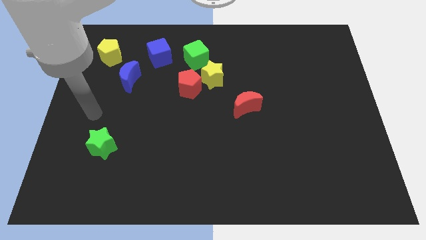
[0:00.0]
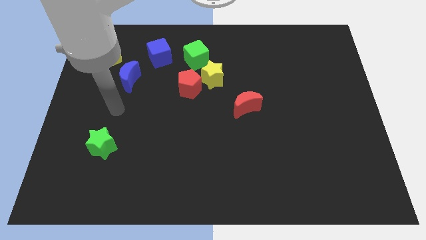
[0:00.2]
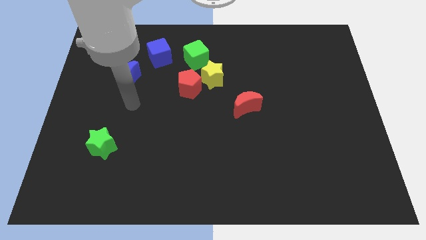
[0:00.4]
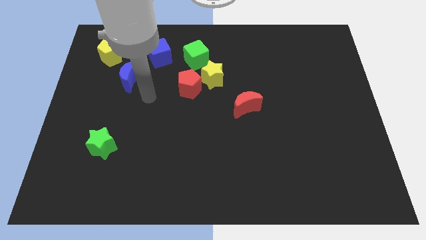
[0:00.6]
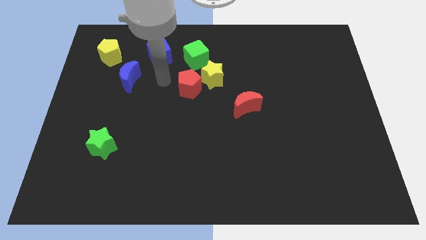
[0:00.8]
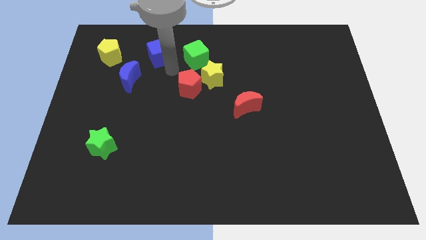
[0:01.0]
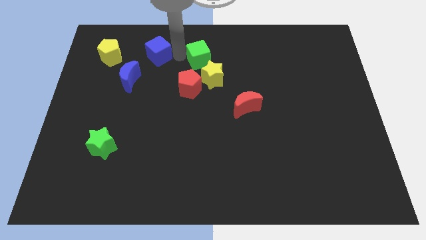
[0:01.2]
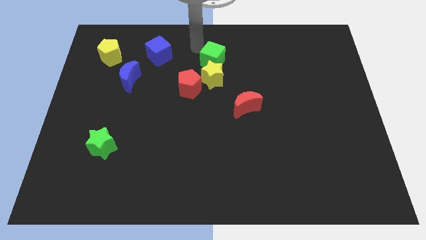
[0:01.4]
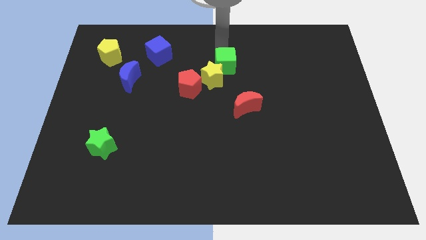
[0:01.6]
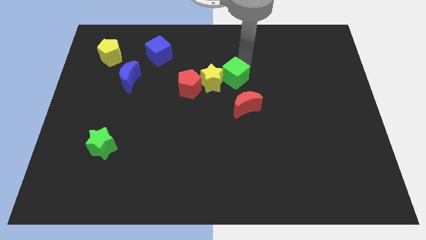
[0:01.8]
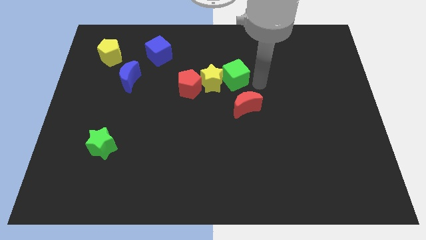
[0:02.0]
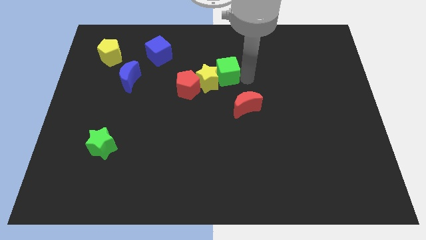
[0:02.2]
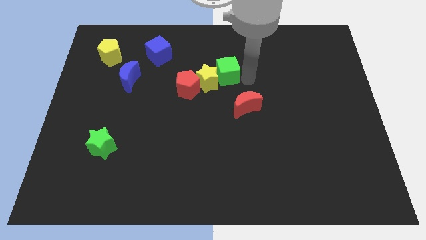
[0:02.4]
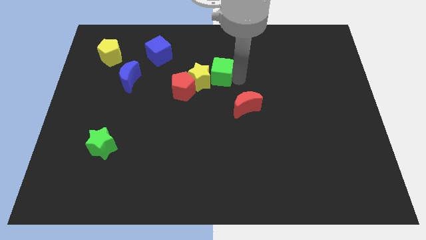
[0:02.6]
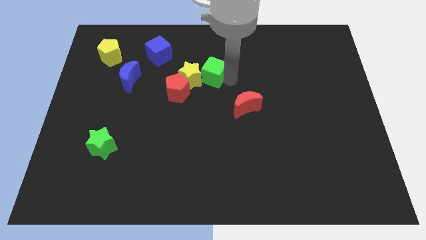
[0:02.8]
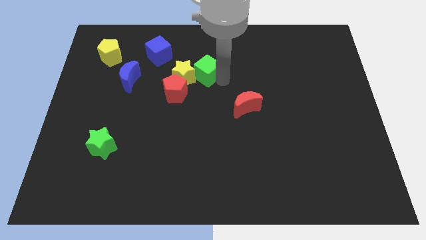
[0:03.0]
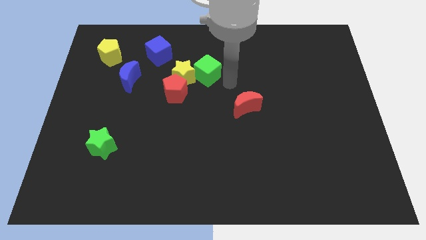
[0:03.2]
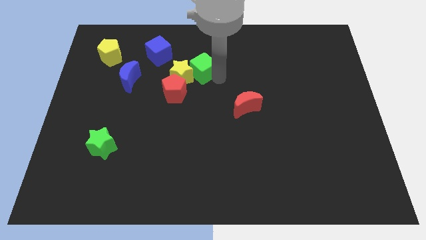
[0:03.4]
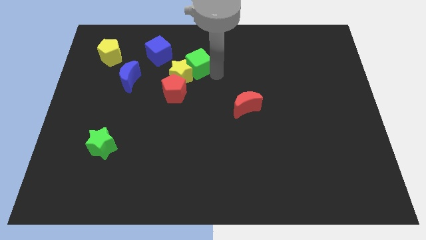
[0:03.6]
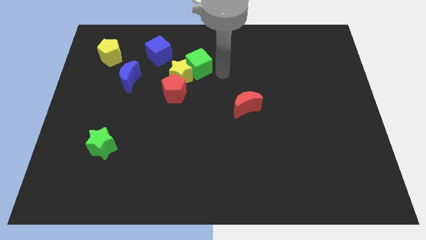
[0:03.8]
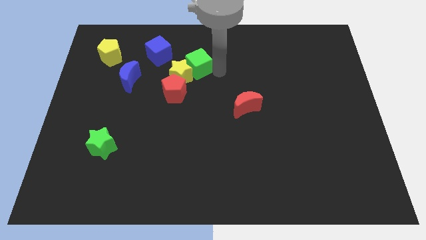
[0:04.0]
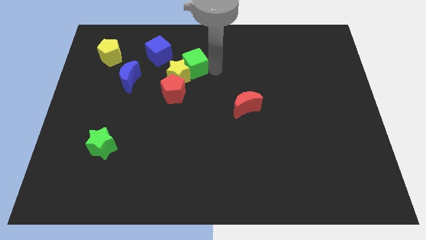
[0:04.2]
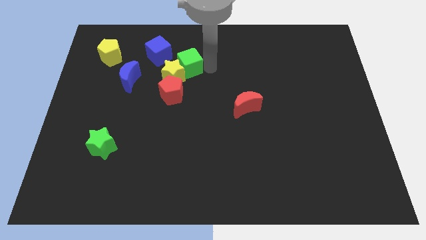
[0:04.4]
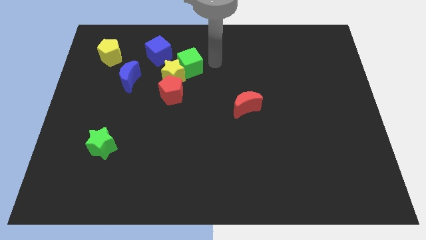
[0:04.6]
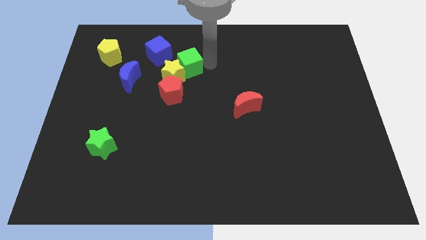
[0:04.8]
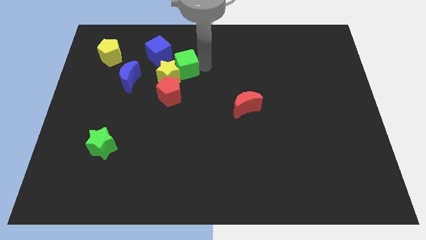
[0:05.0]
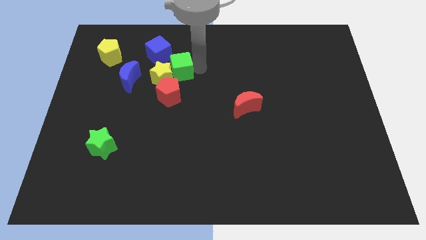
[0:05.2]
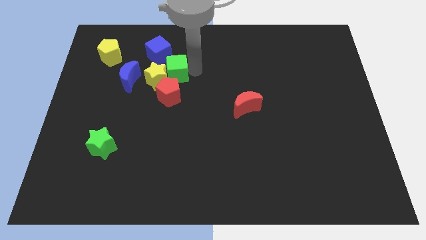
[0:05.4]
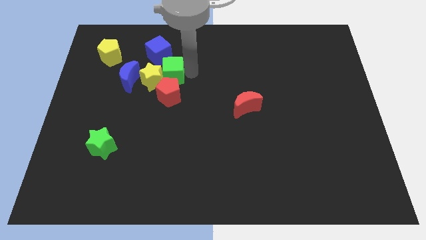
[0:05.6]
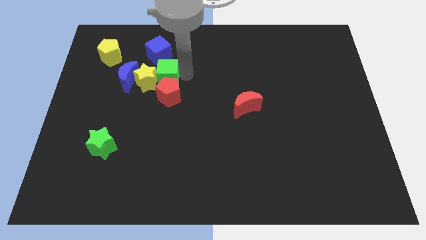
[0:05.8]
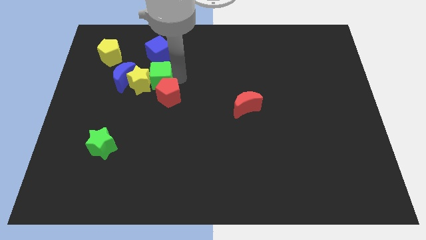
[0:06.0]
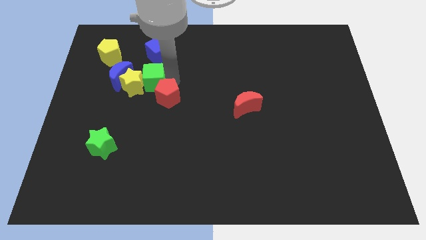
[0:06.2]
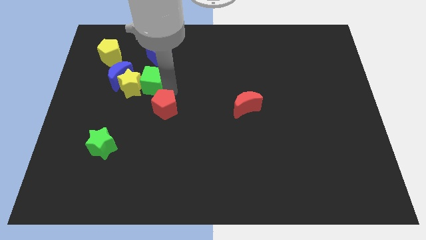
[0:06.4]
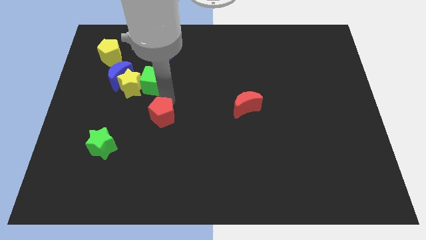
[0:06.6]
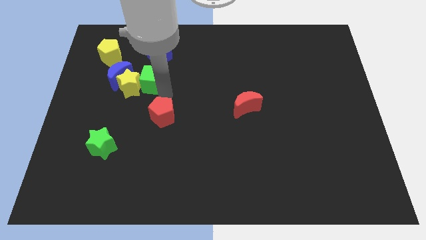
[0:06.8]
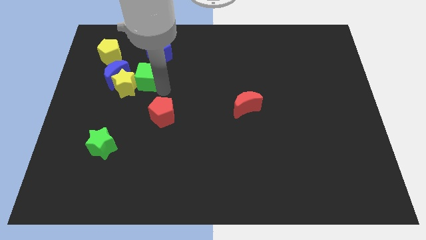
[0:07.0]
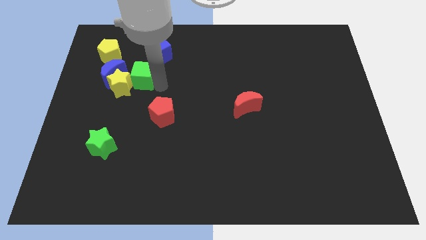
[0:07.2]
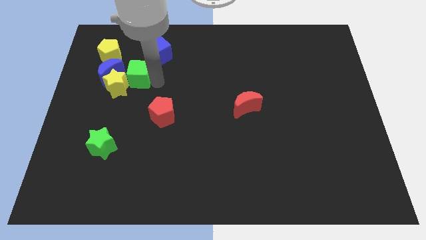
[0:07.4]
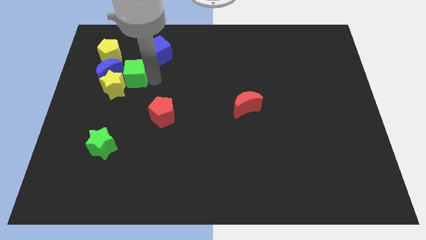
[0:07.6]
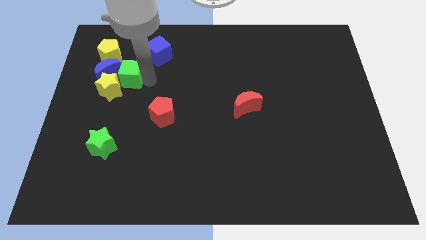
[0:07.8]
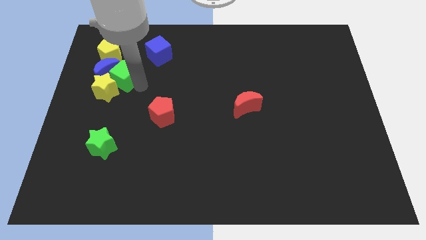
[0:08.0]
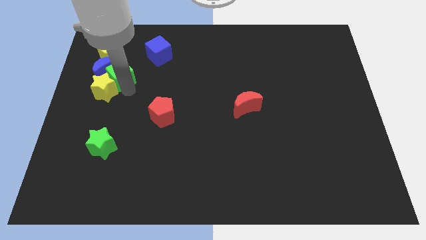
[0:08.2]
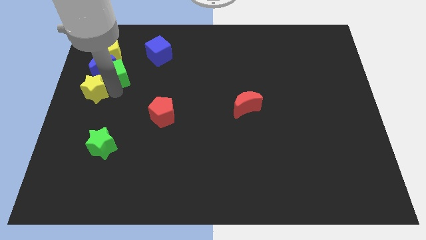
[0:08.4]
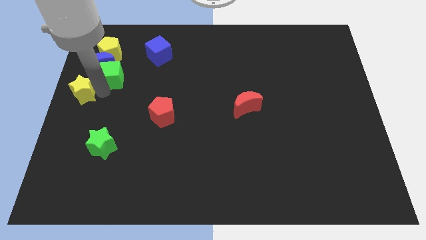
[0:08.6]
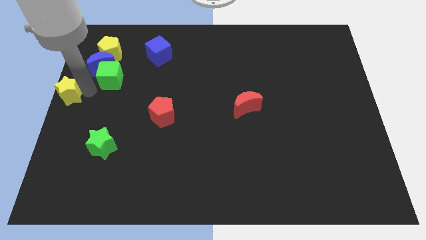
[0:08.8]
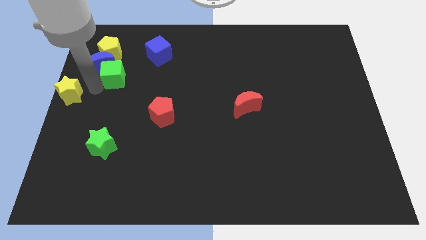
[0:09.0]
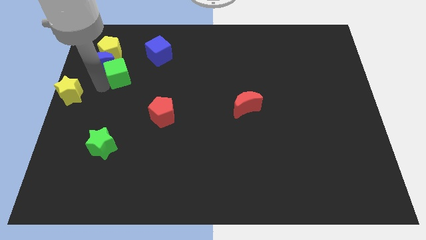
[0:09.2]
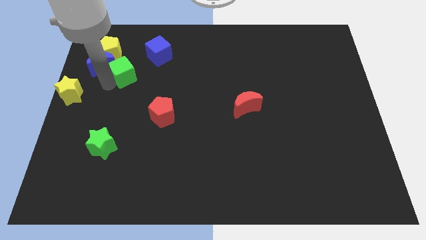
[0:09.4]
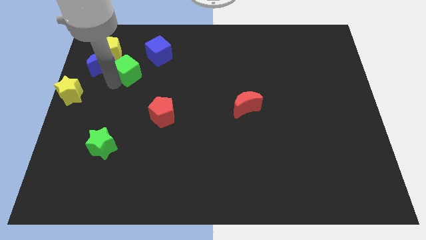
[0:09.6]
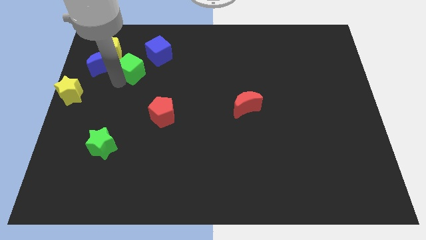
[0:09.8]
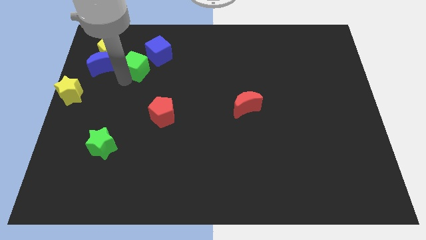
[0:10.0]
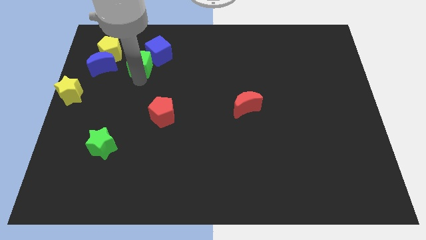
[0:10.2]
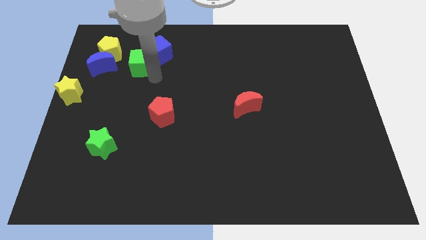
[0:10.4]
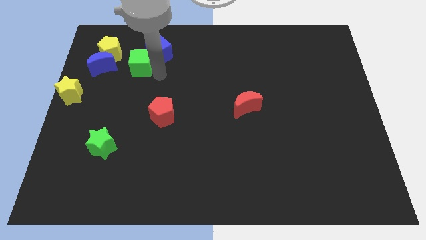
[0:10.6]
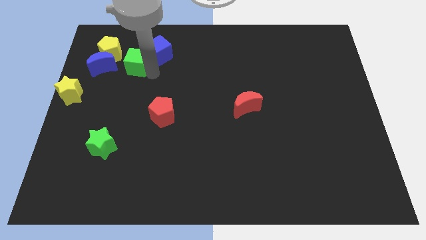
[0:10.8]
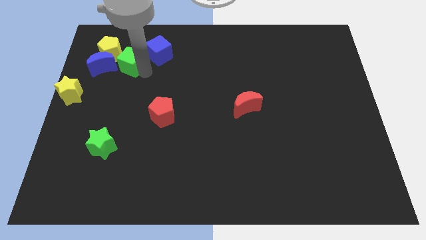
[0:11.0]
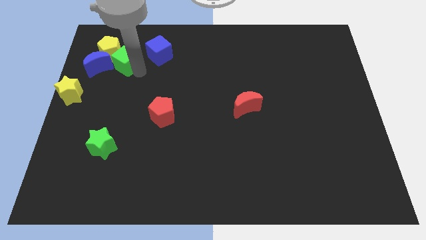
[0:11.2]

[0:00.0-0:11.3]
move the green cube to the yellow pentagon

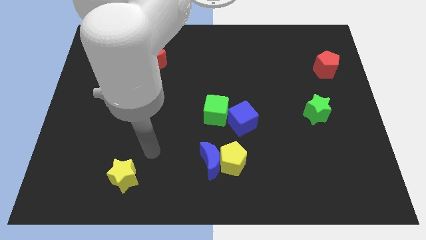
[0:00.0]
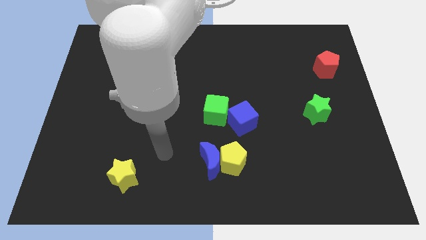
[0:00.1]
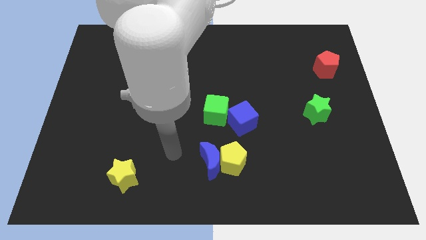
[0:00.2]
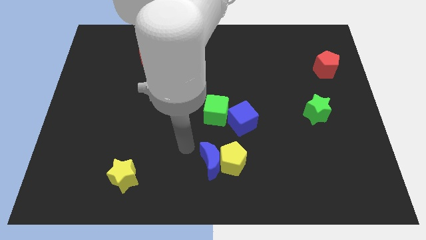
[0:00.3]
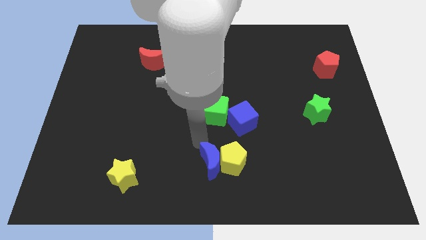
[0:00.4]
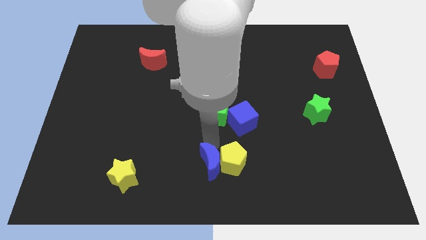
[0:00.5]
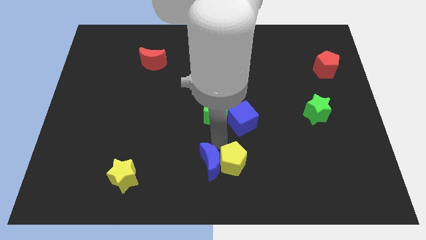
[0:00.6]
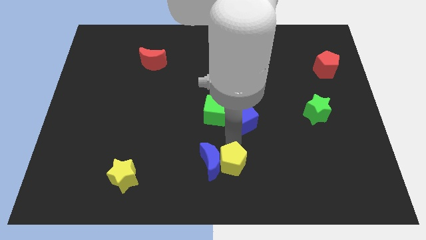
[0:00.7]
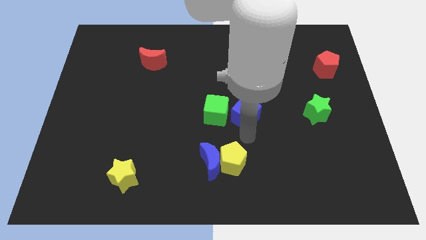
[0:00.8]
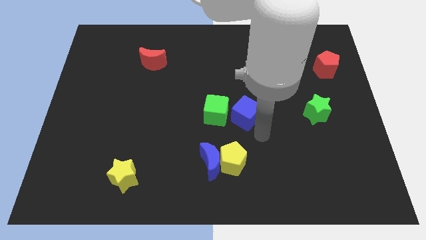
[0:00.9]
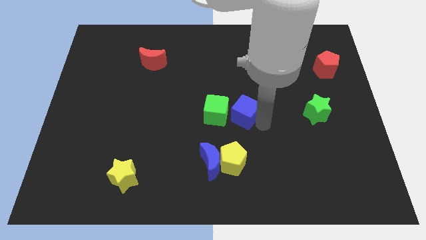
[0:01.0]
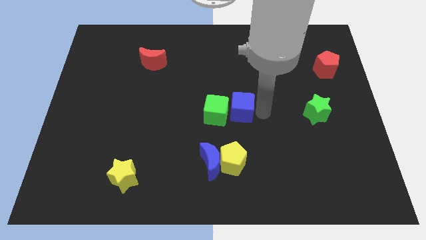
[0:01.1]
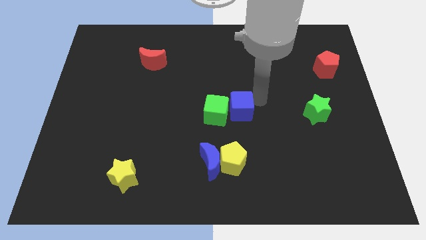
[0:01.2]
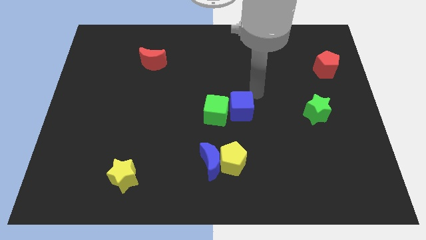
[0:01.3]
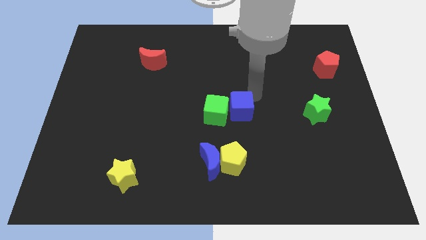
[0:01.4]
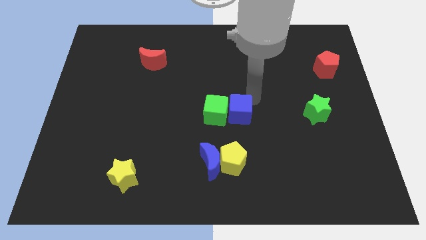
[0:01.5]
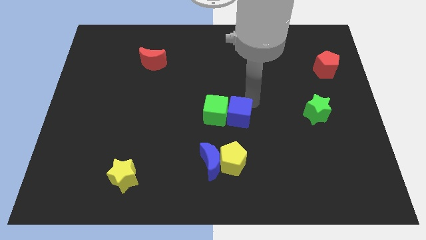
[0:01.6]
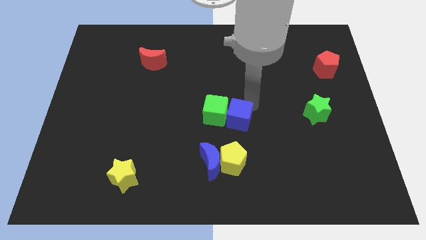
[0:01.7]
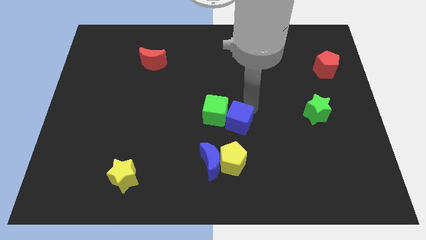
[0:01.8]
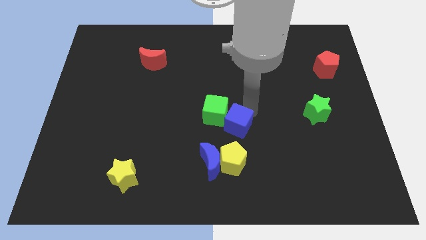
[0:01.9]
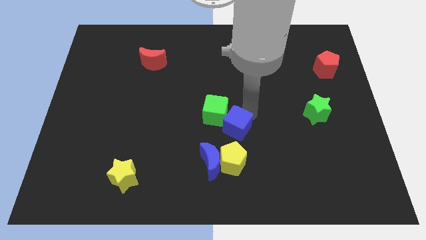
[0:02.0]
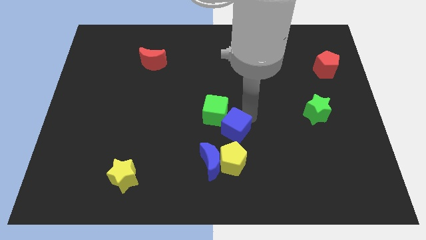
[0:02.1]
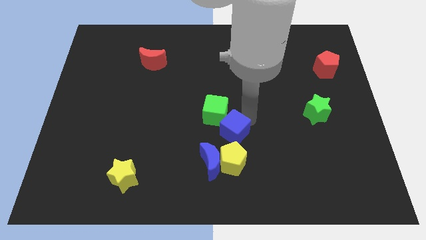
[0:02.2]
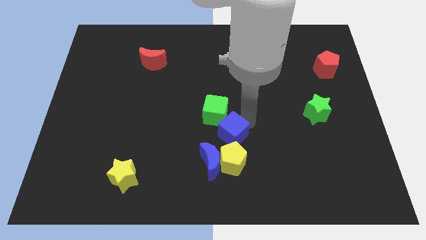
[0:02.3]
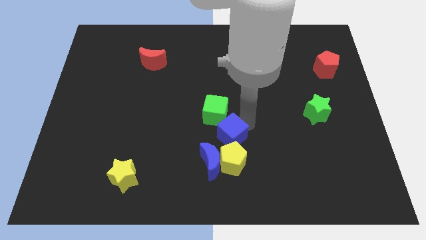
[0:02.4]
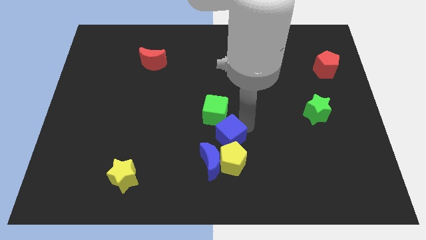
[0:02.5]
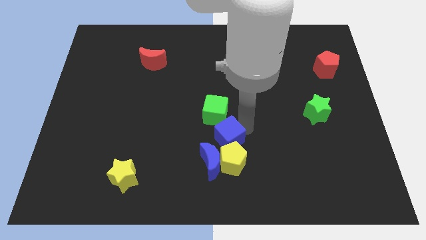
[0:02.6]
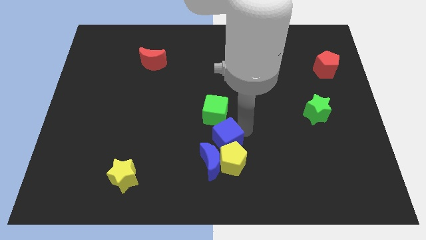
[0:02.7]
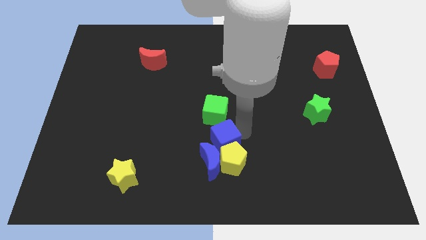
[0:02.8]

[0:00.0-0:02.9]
push the blue cube to the blue moon
